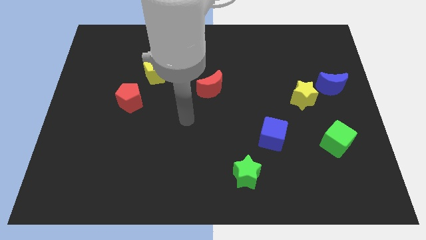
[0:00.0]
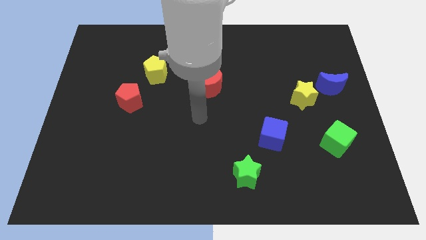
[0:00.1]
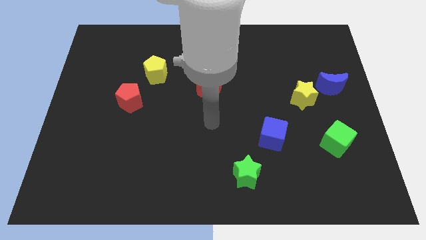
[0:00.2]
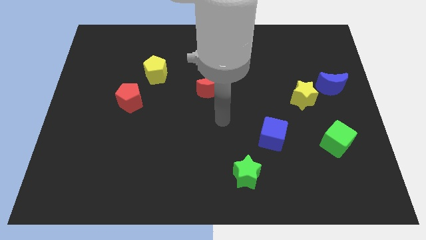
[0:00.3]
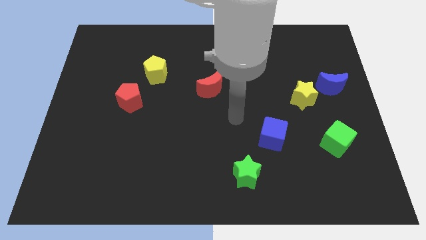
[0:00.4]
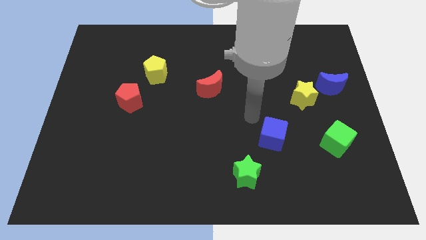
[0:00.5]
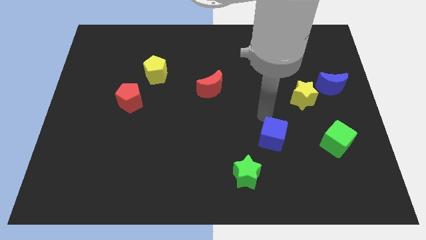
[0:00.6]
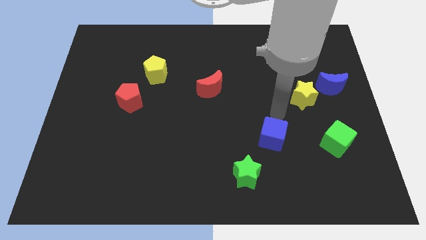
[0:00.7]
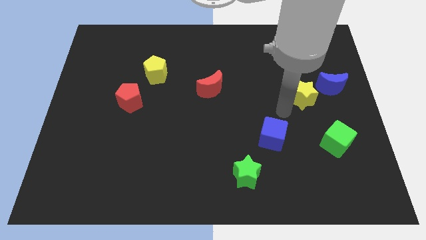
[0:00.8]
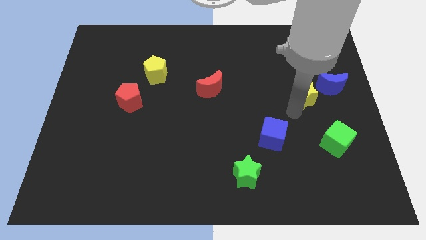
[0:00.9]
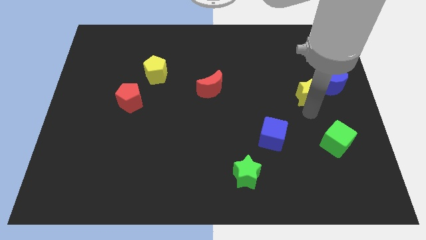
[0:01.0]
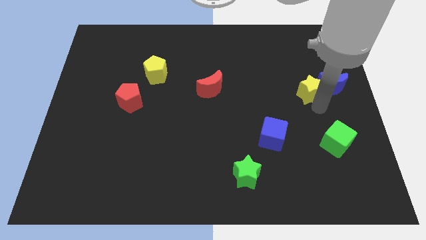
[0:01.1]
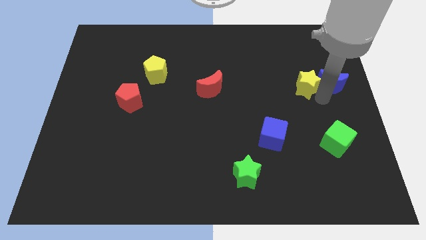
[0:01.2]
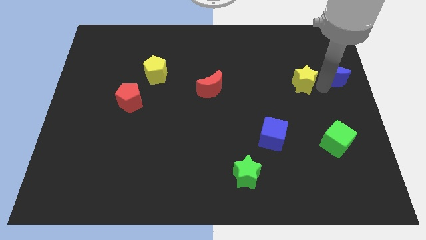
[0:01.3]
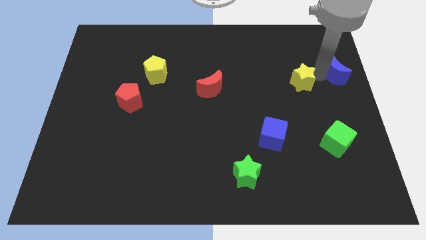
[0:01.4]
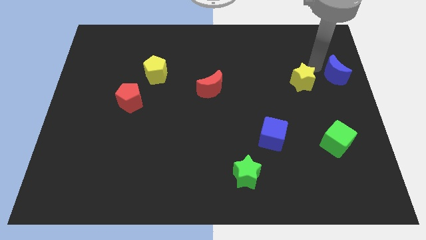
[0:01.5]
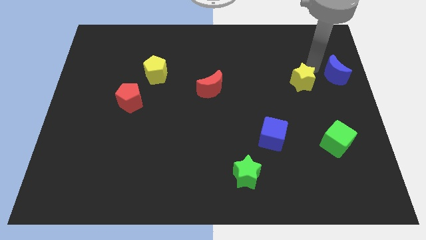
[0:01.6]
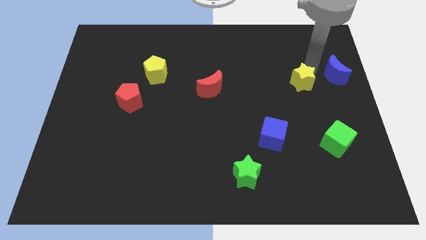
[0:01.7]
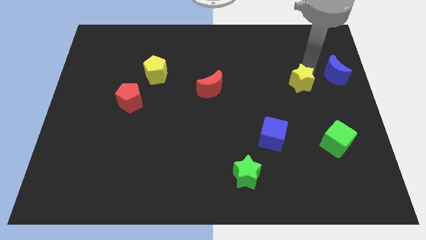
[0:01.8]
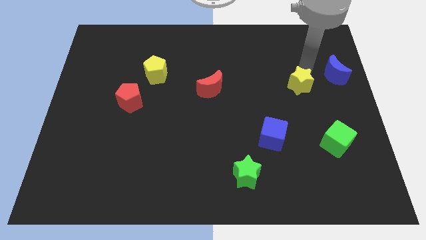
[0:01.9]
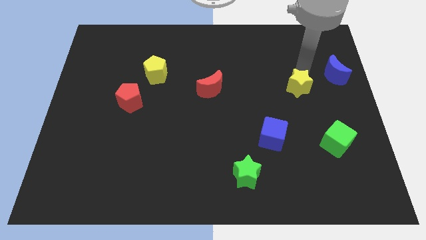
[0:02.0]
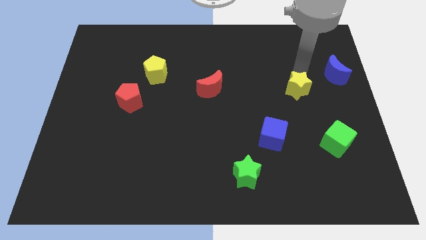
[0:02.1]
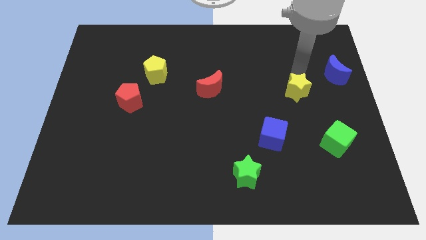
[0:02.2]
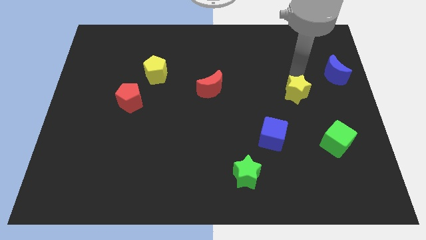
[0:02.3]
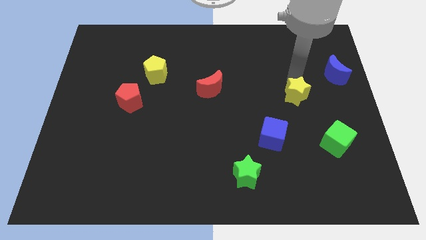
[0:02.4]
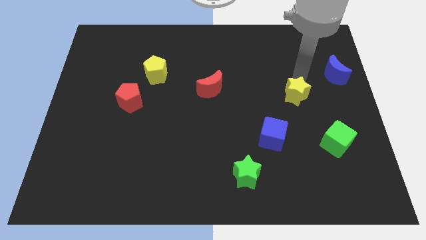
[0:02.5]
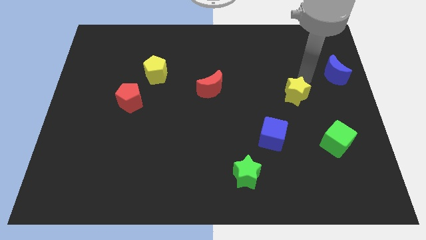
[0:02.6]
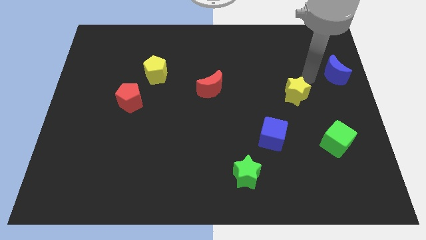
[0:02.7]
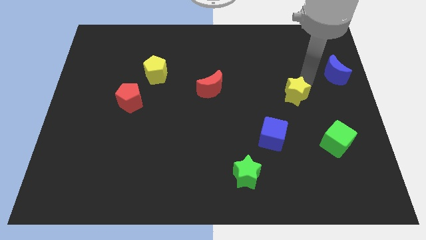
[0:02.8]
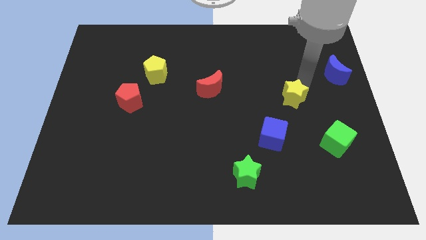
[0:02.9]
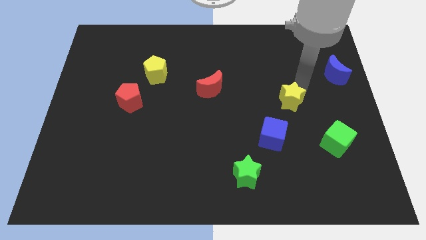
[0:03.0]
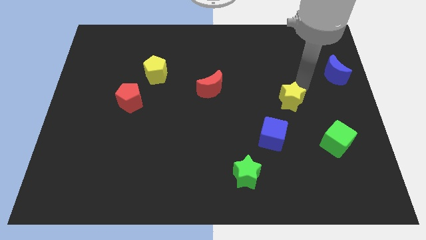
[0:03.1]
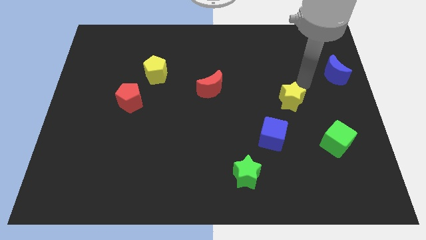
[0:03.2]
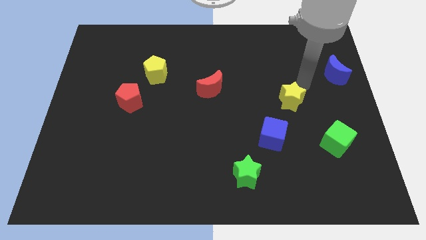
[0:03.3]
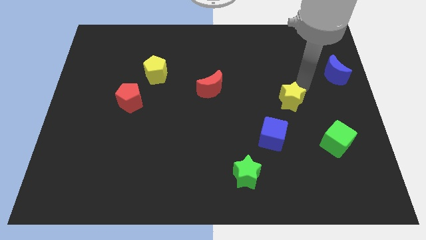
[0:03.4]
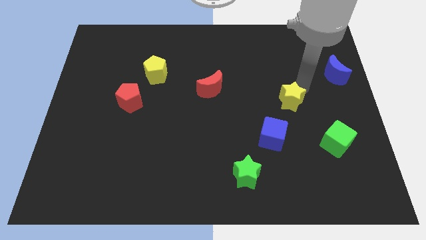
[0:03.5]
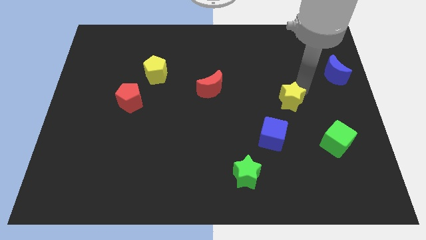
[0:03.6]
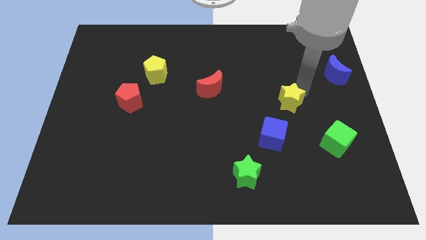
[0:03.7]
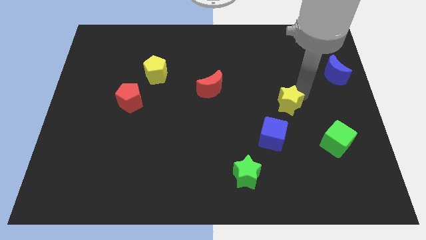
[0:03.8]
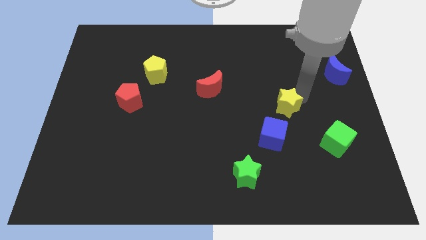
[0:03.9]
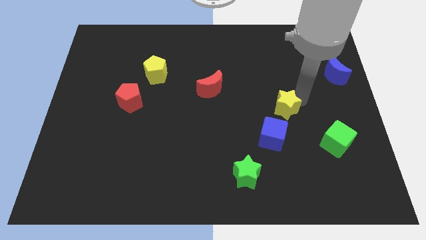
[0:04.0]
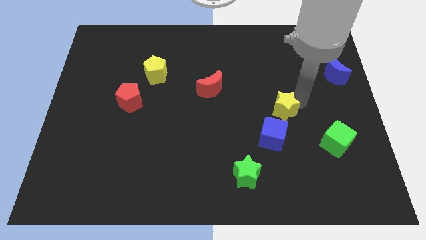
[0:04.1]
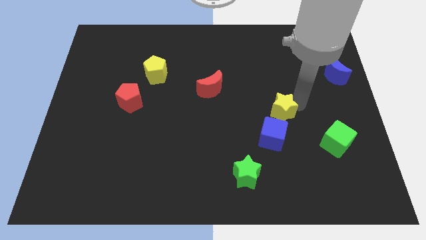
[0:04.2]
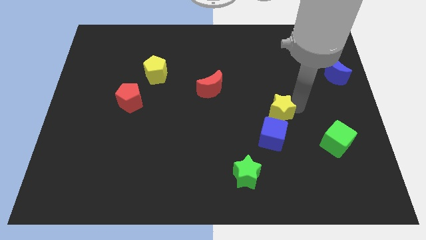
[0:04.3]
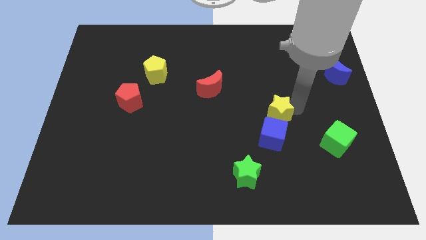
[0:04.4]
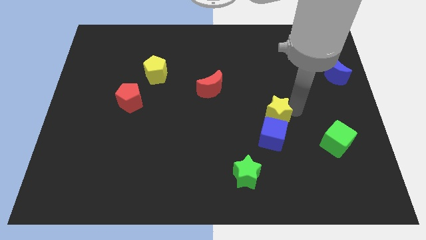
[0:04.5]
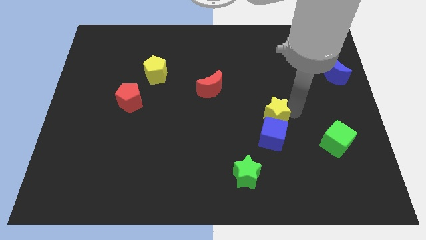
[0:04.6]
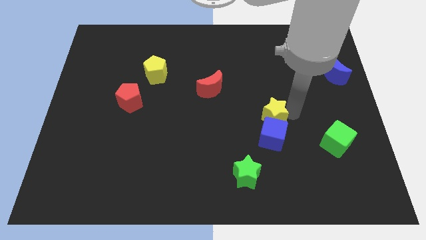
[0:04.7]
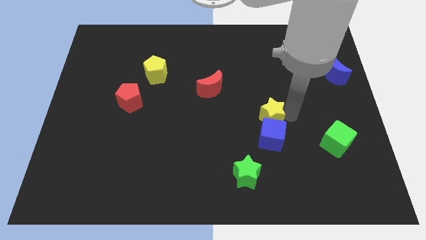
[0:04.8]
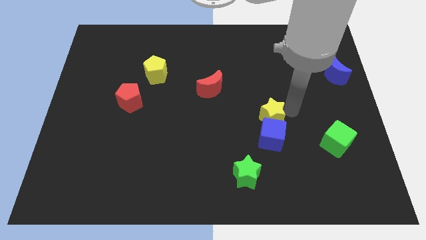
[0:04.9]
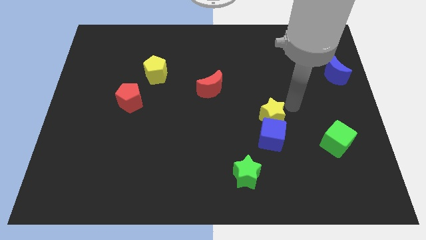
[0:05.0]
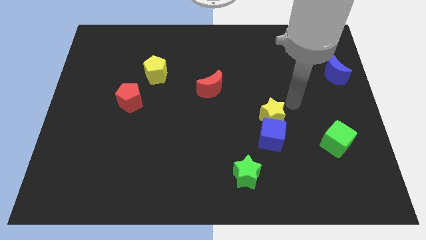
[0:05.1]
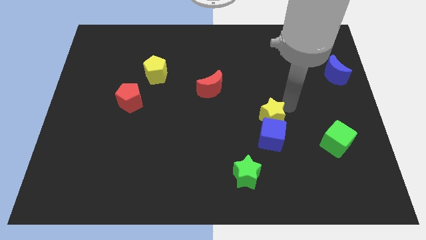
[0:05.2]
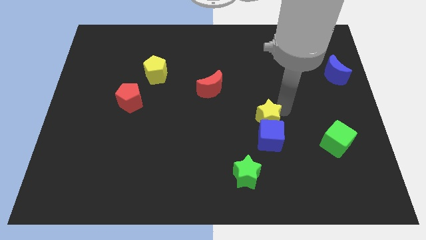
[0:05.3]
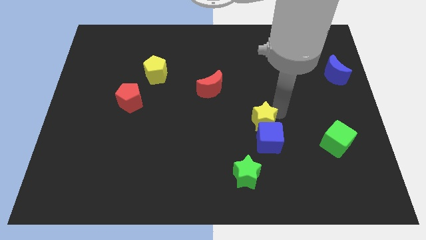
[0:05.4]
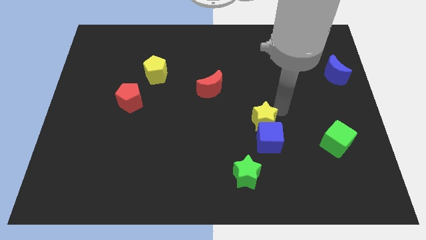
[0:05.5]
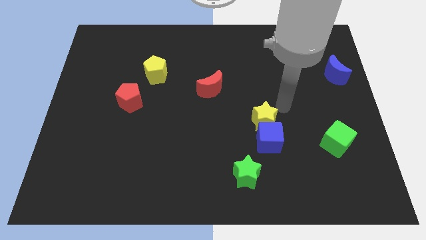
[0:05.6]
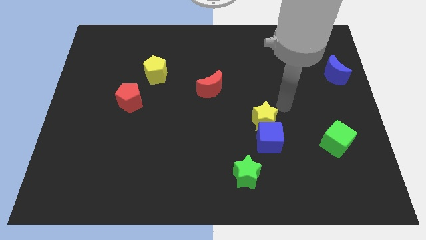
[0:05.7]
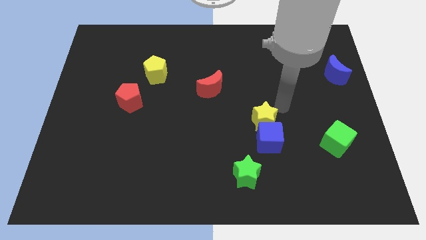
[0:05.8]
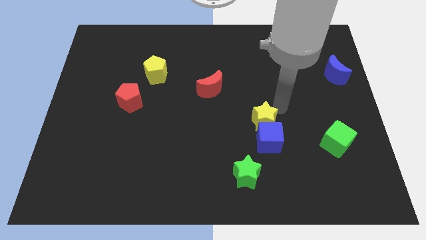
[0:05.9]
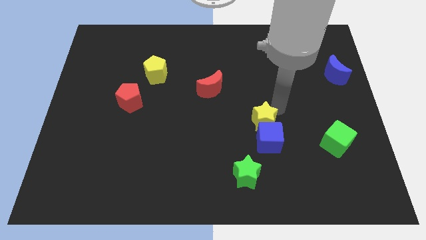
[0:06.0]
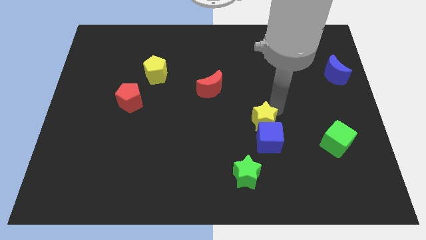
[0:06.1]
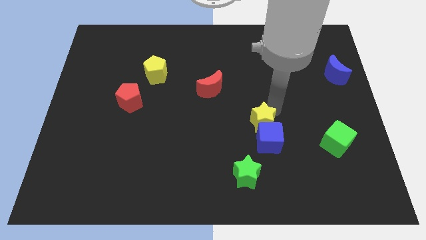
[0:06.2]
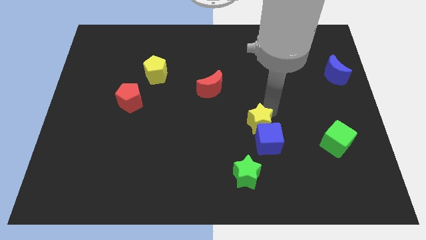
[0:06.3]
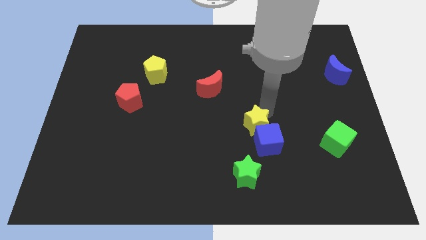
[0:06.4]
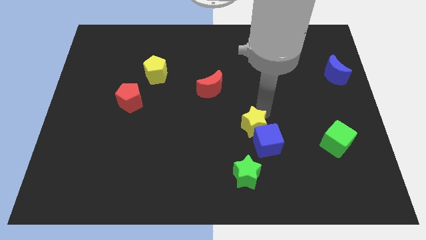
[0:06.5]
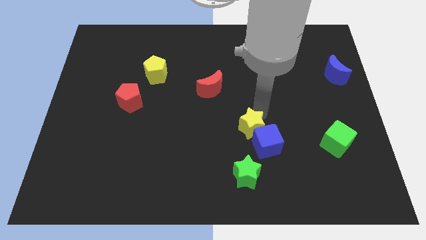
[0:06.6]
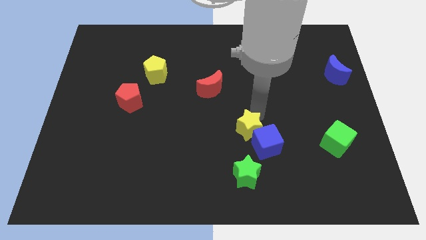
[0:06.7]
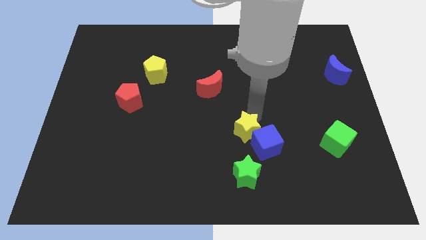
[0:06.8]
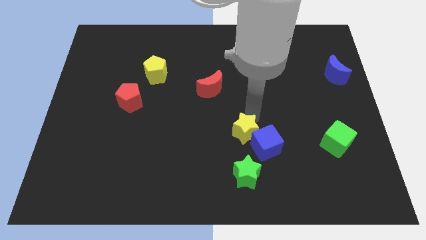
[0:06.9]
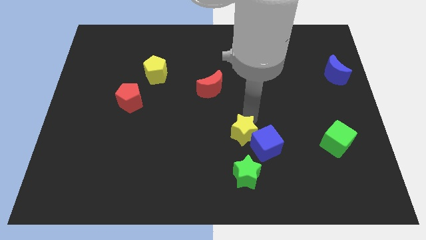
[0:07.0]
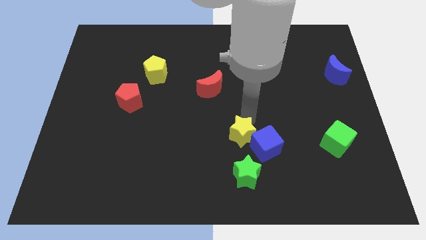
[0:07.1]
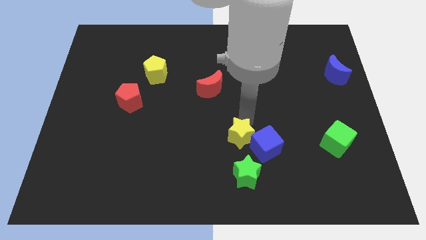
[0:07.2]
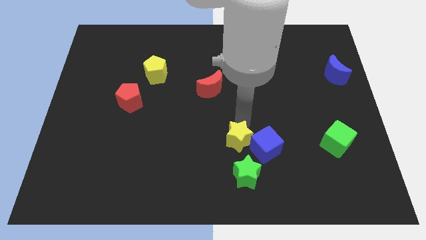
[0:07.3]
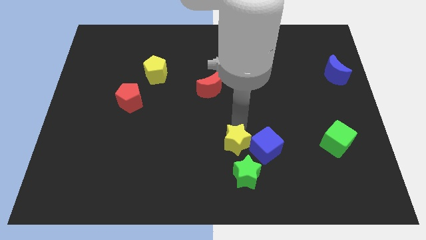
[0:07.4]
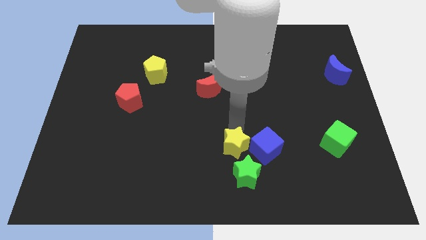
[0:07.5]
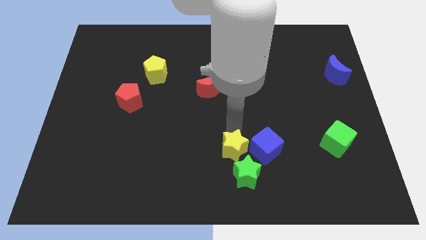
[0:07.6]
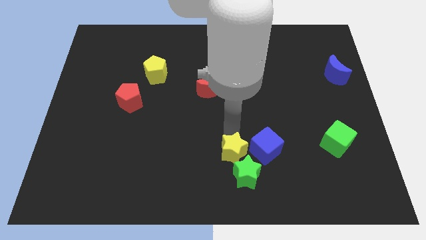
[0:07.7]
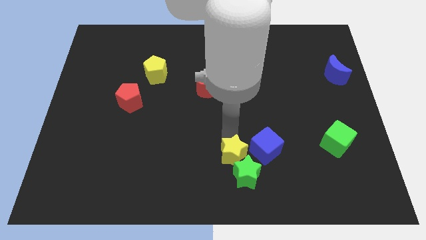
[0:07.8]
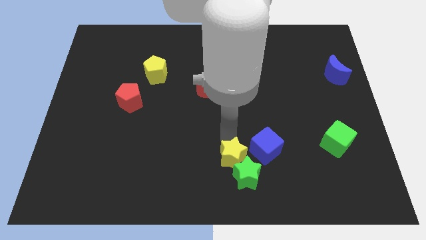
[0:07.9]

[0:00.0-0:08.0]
slide the yellow star to the bottom side
